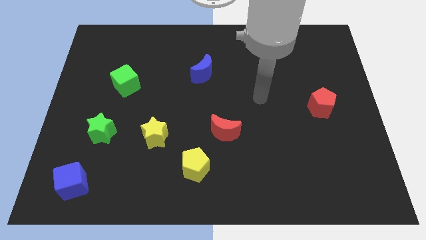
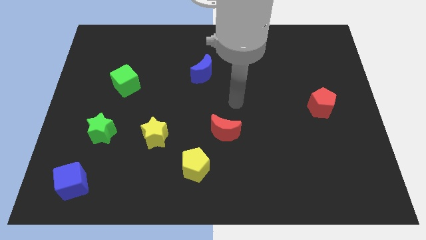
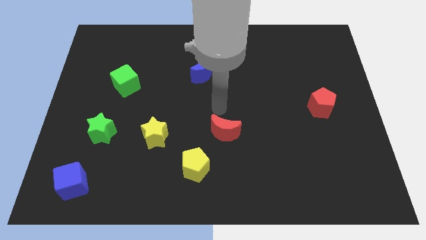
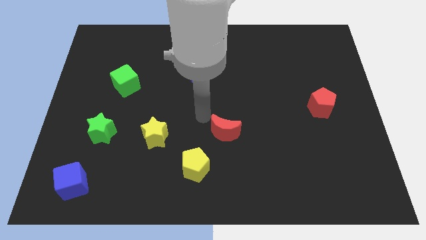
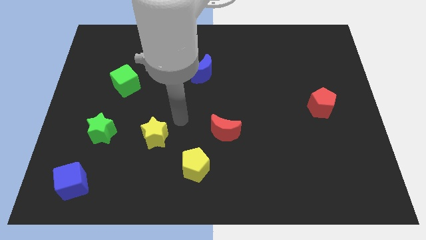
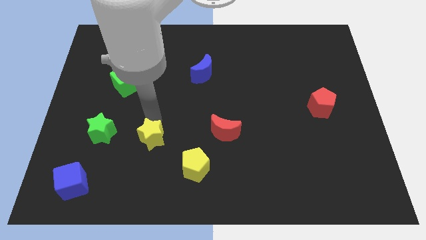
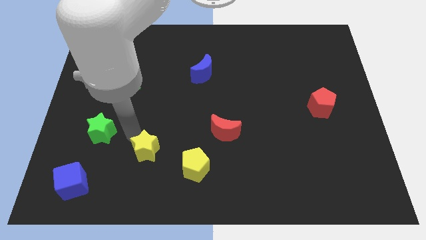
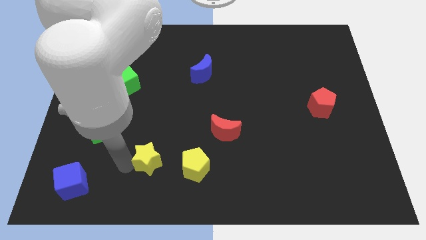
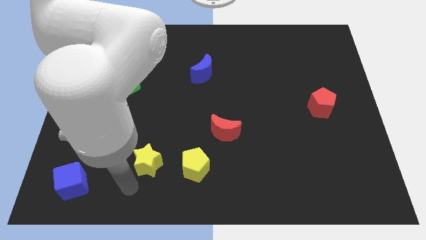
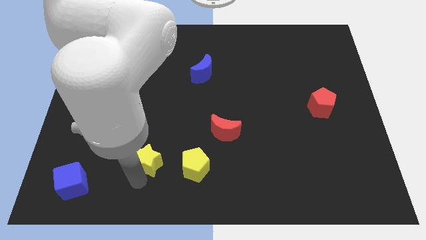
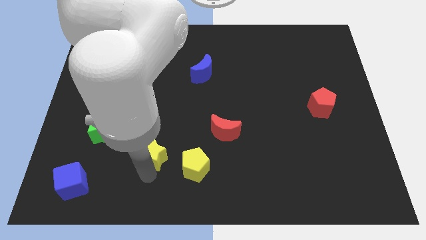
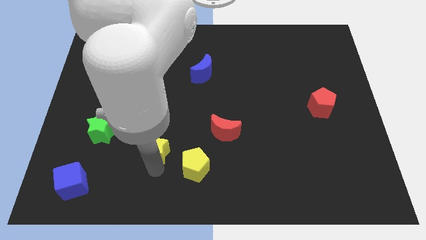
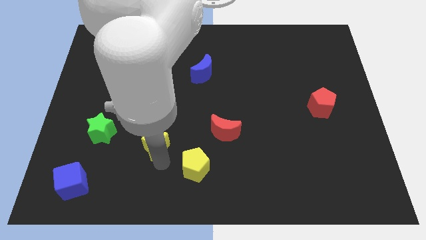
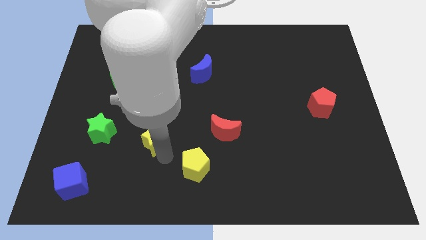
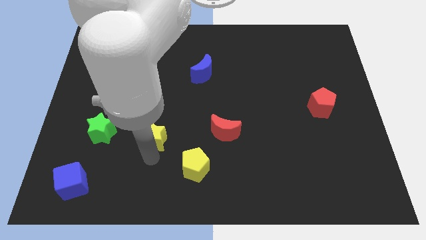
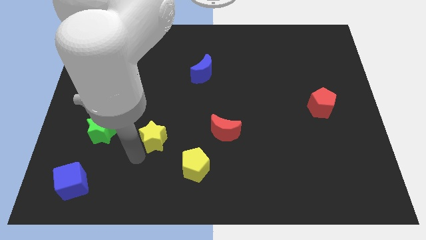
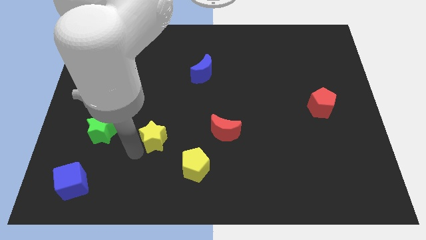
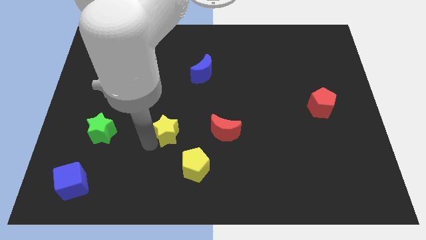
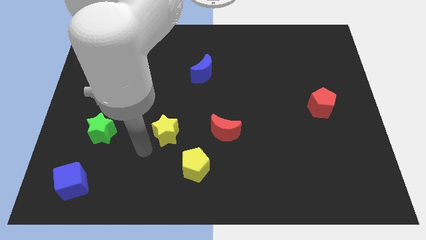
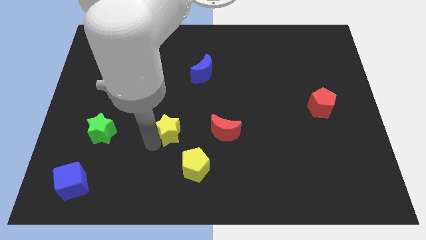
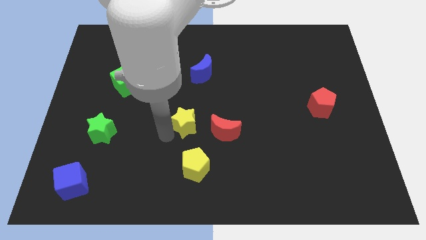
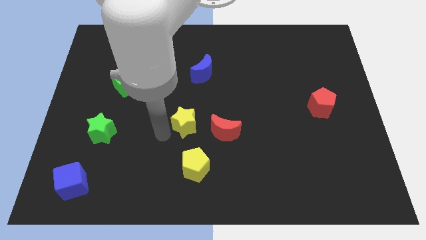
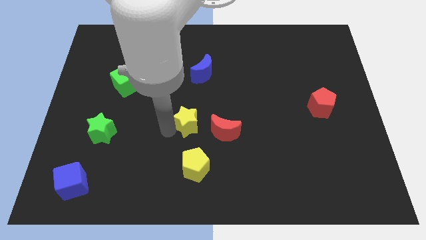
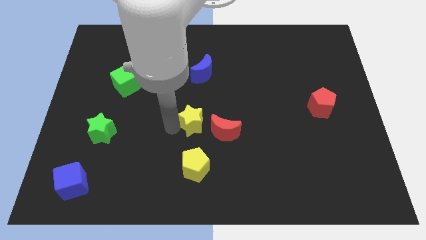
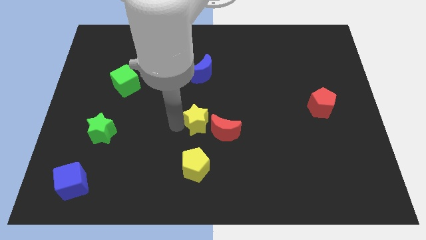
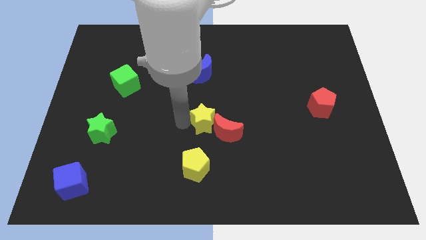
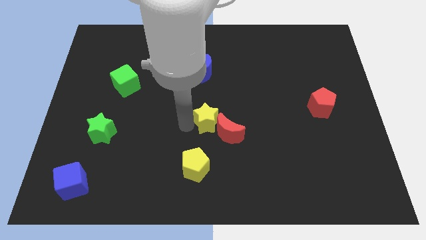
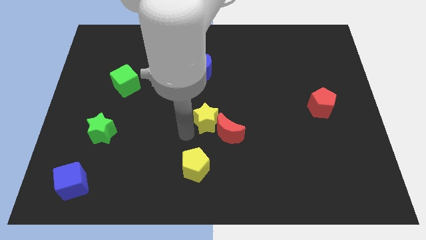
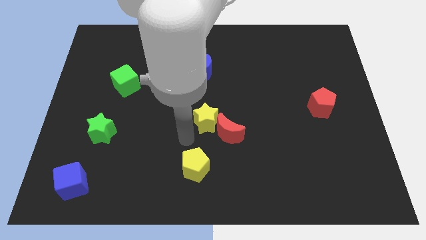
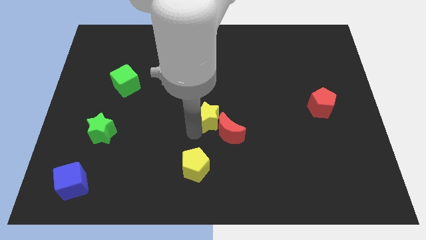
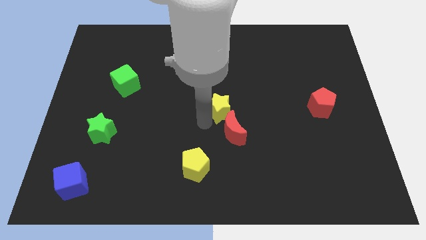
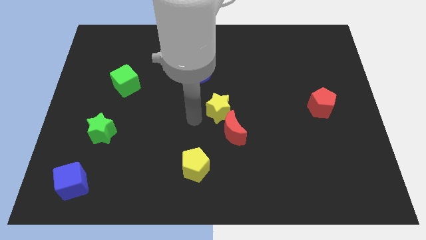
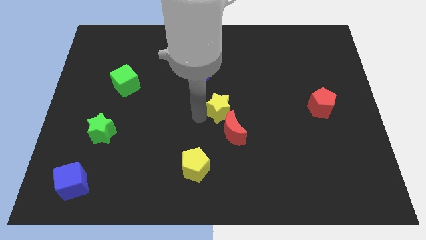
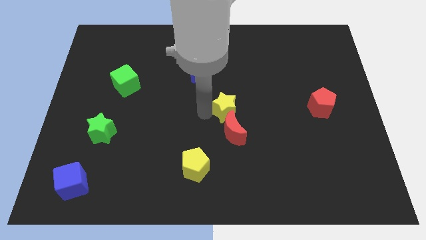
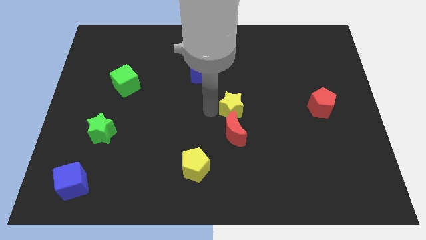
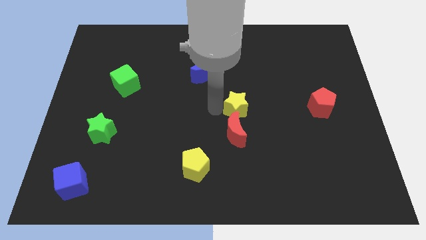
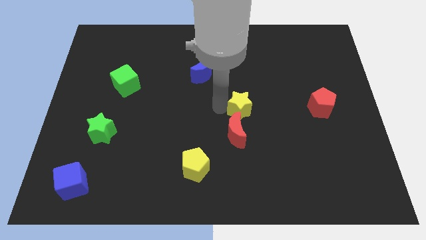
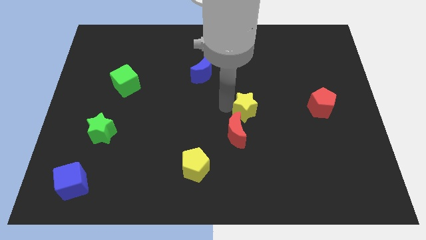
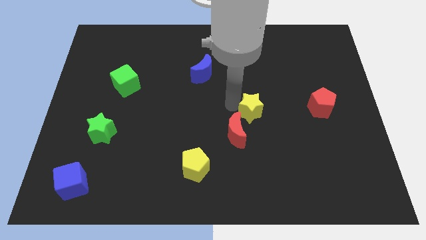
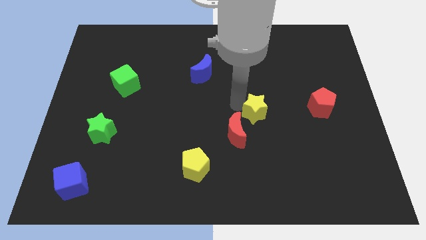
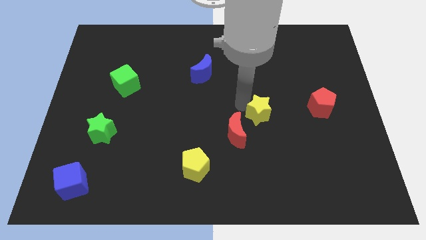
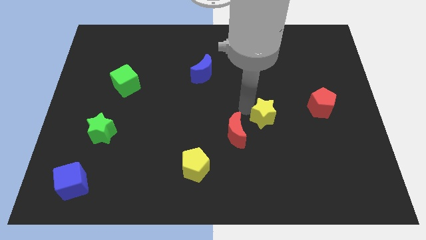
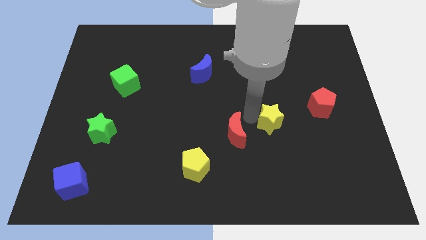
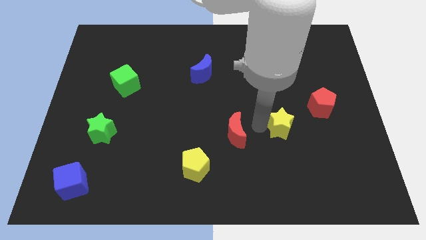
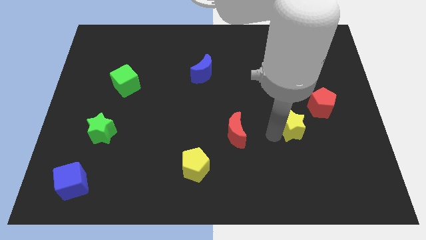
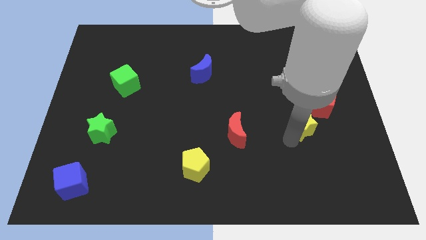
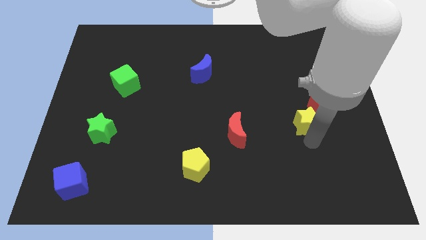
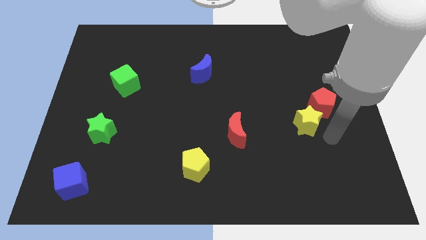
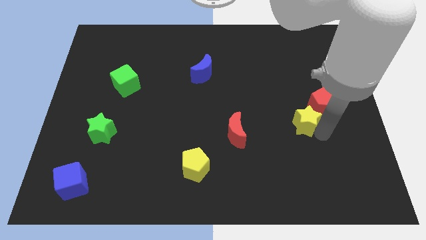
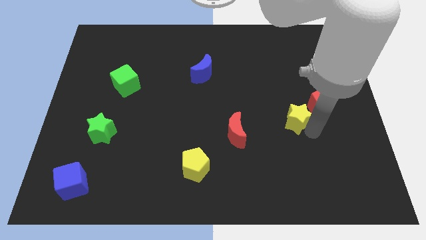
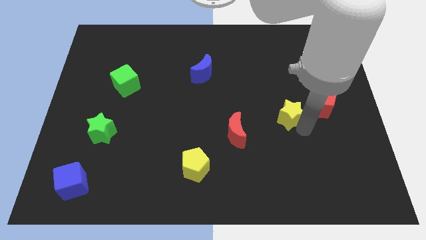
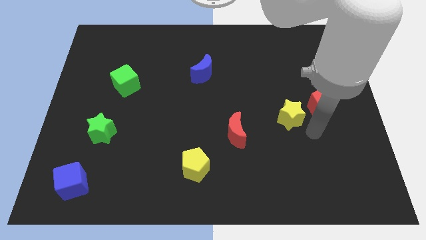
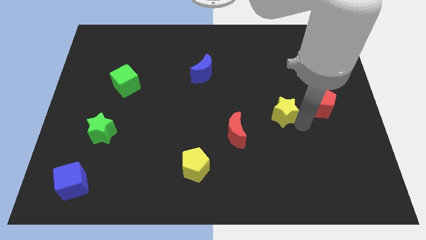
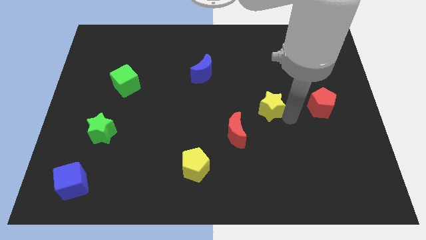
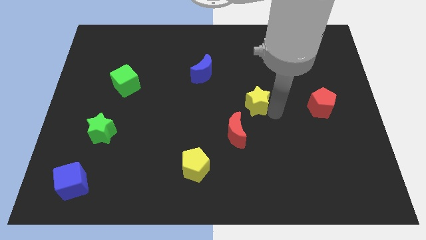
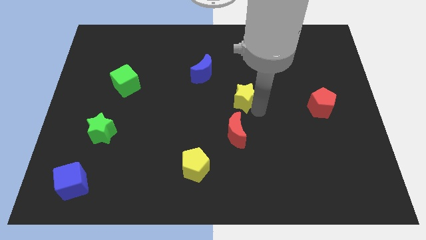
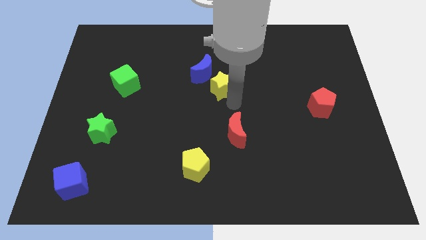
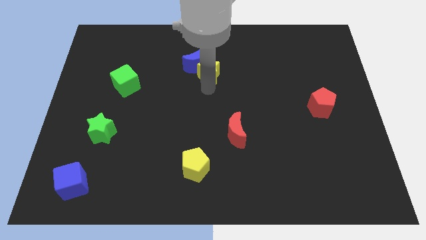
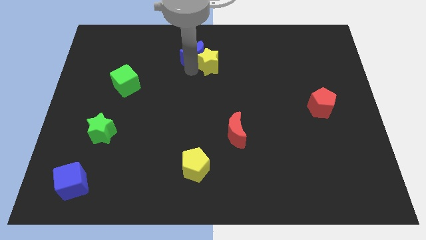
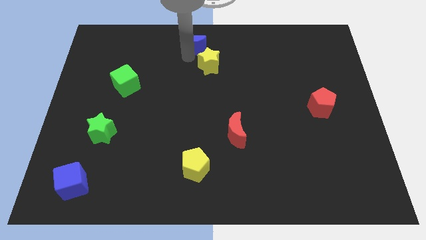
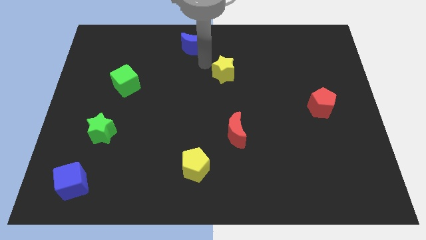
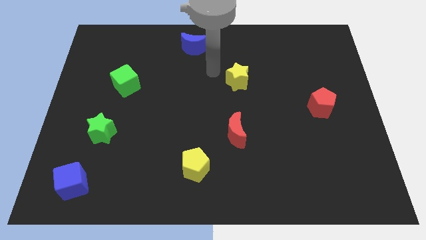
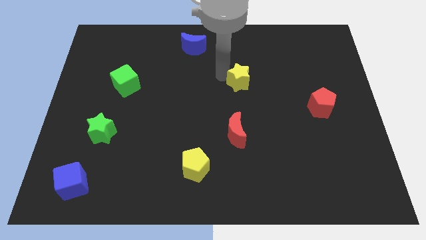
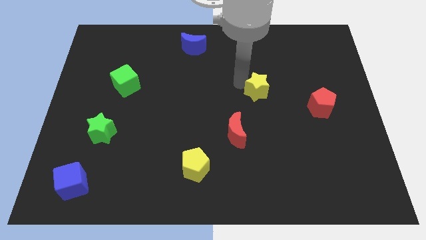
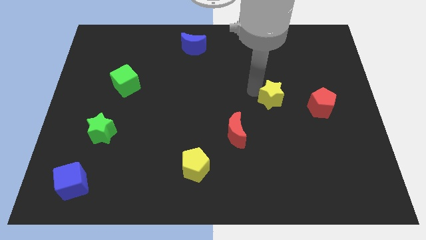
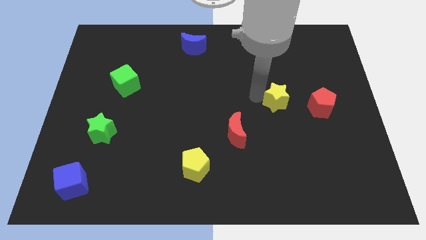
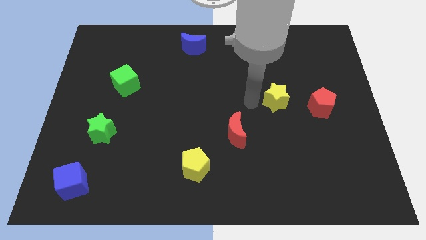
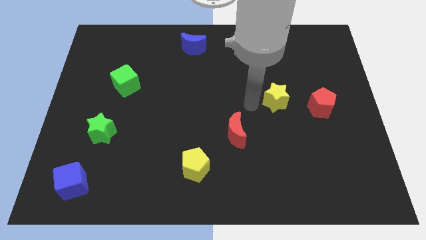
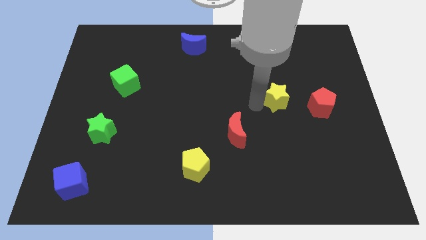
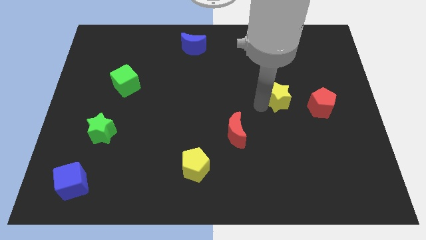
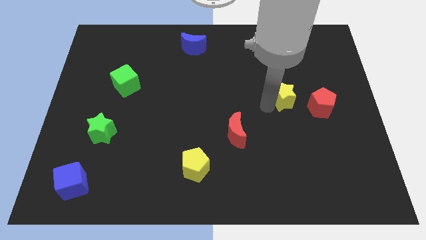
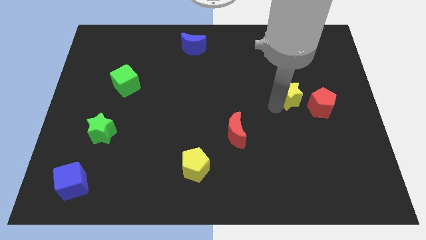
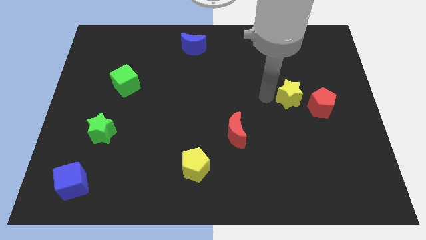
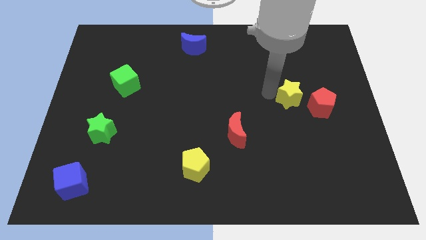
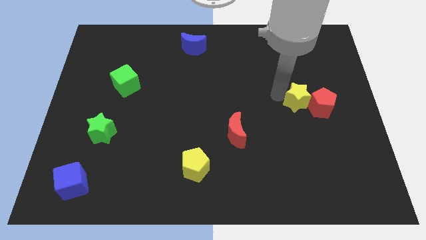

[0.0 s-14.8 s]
put the yellow star towards the red pentagon
